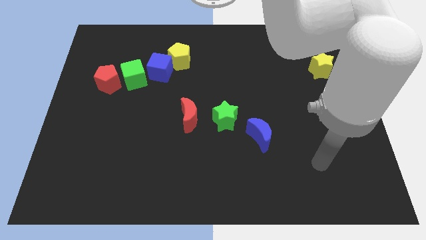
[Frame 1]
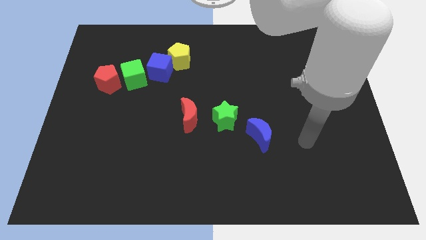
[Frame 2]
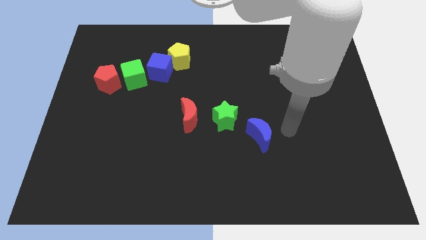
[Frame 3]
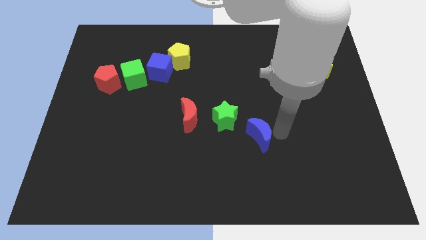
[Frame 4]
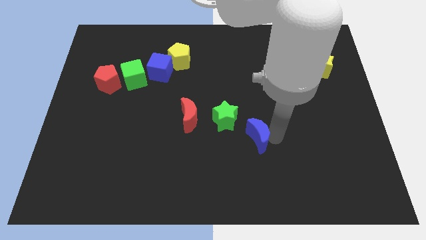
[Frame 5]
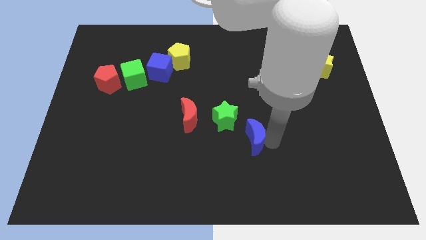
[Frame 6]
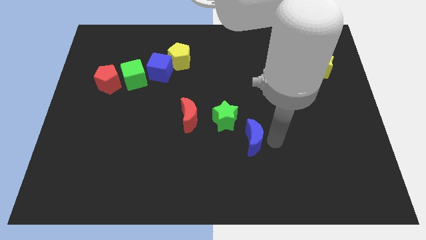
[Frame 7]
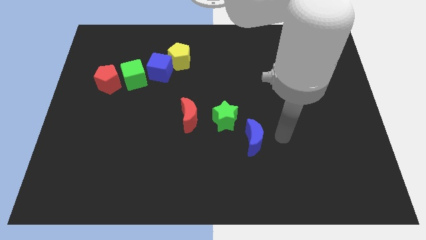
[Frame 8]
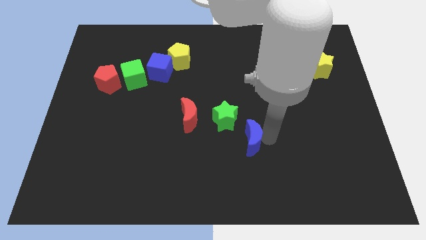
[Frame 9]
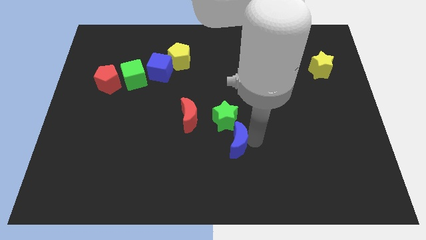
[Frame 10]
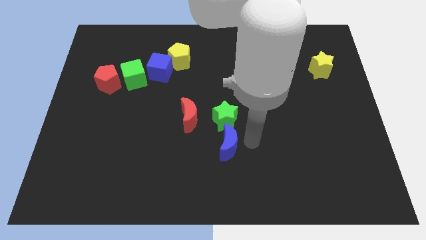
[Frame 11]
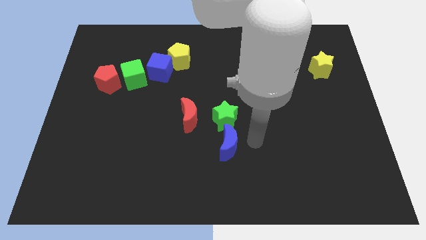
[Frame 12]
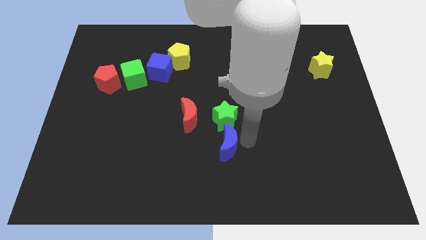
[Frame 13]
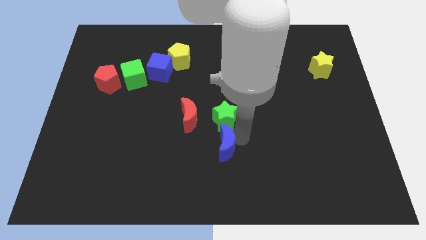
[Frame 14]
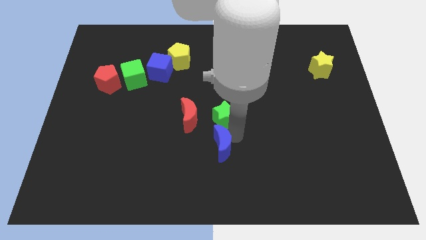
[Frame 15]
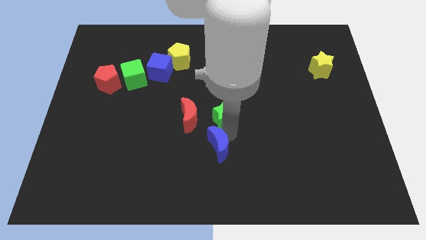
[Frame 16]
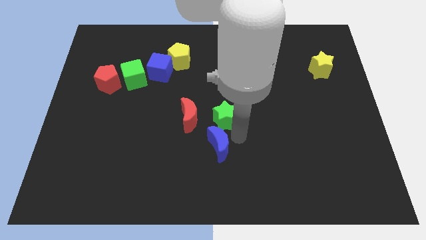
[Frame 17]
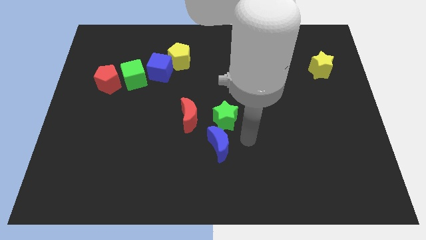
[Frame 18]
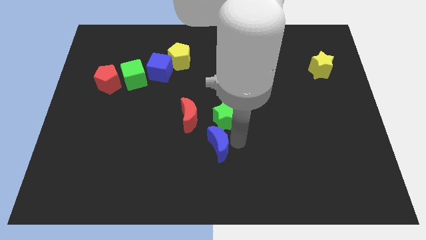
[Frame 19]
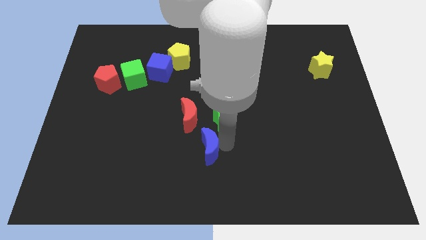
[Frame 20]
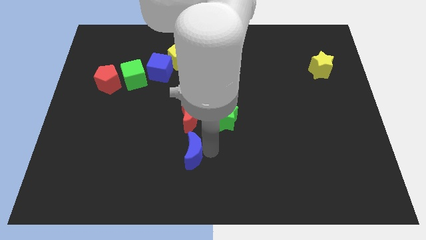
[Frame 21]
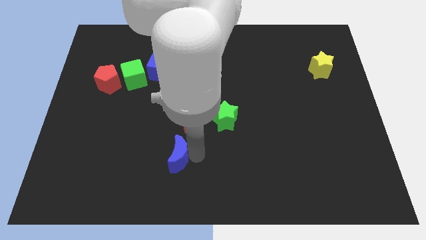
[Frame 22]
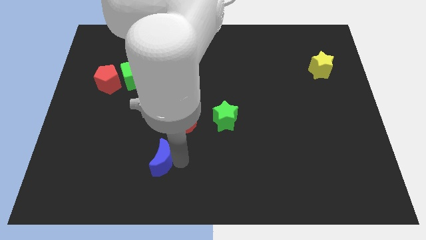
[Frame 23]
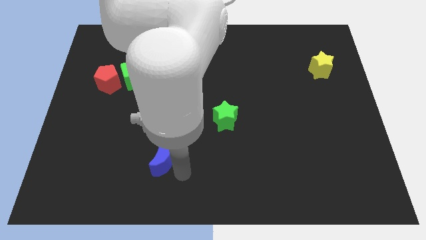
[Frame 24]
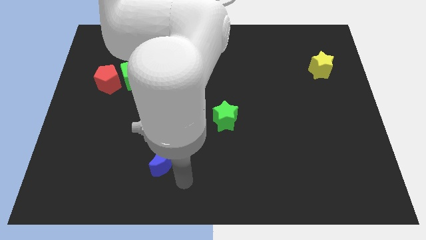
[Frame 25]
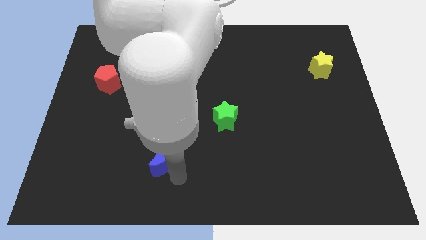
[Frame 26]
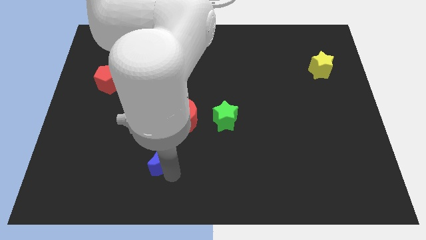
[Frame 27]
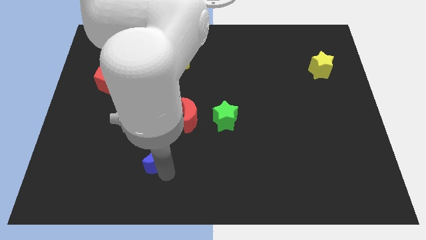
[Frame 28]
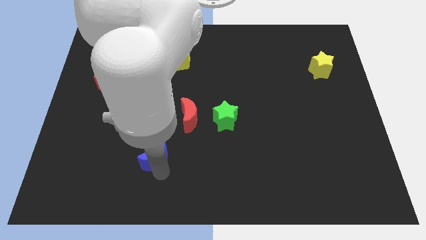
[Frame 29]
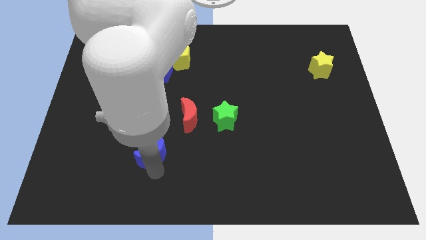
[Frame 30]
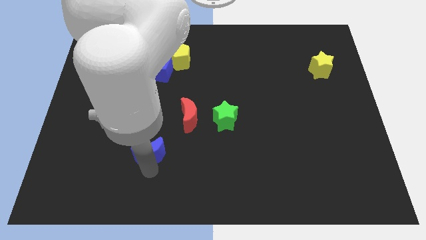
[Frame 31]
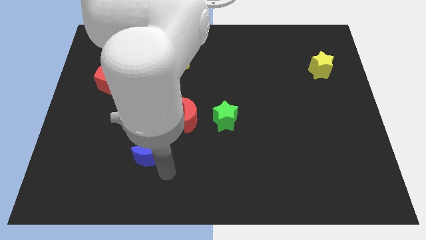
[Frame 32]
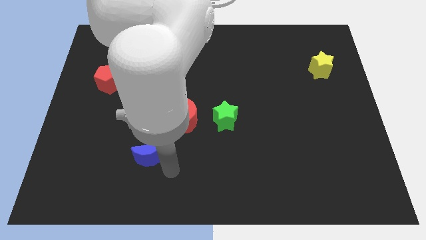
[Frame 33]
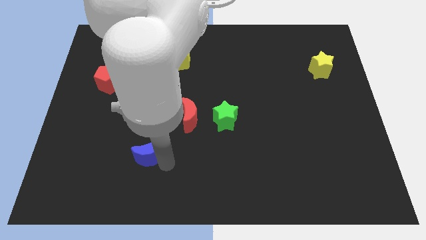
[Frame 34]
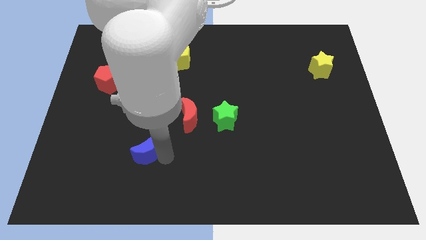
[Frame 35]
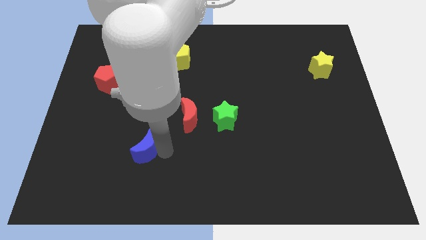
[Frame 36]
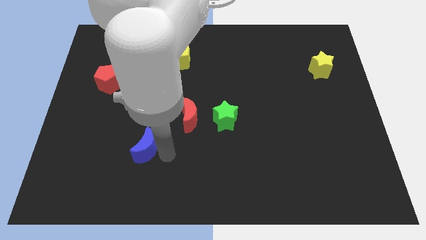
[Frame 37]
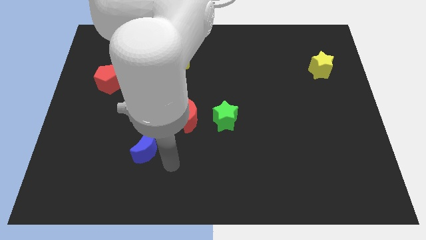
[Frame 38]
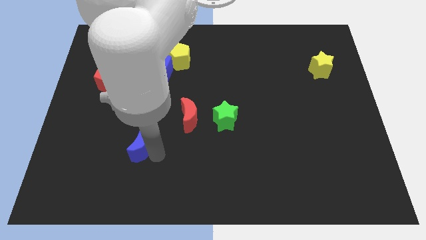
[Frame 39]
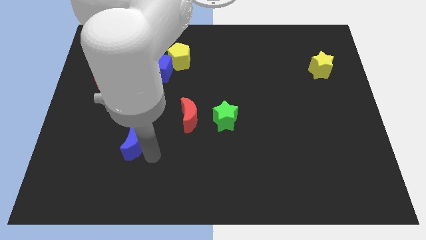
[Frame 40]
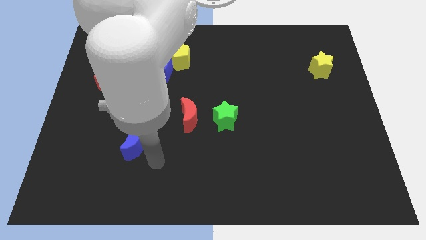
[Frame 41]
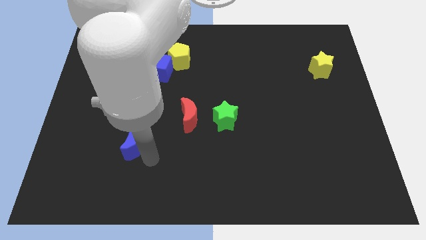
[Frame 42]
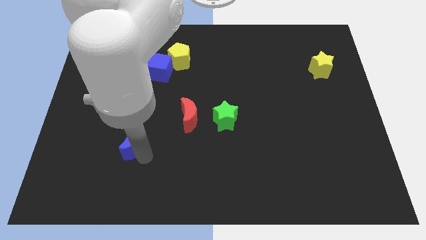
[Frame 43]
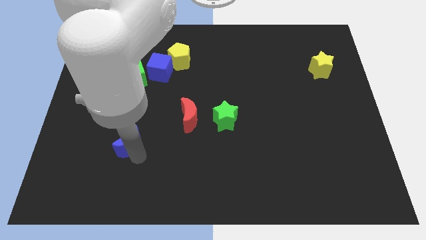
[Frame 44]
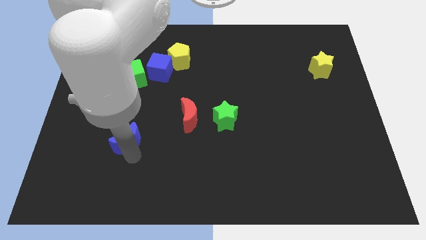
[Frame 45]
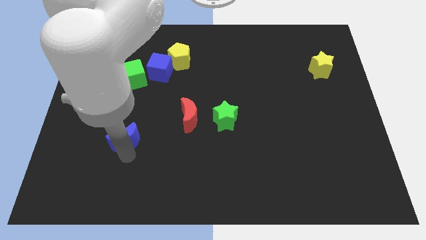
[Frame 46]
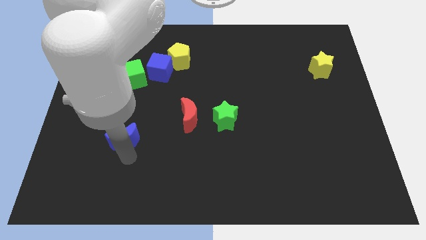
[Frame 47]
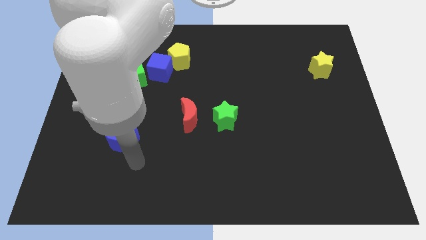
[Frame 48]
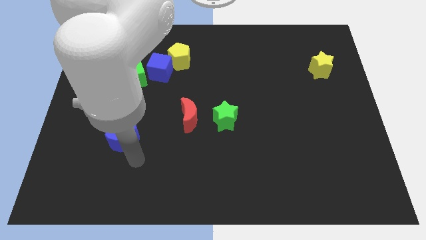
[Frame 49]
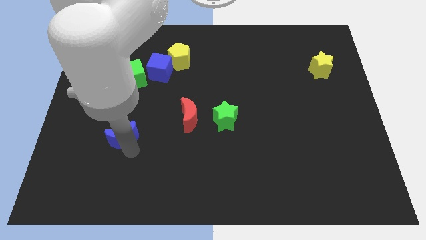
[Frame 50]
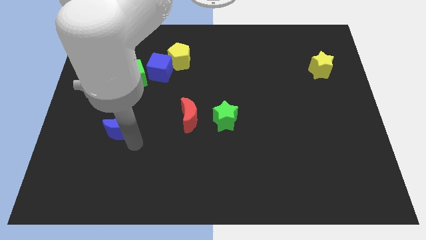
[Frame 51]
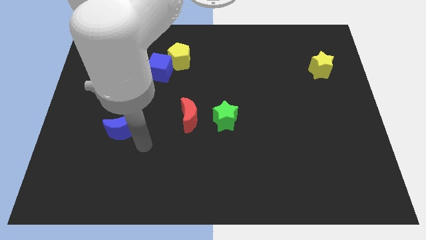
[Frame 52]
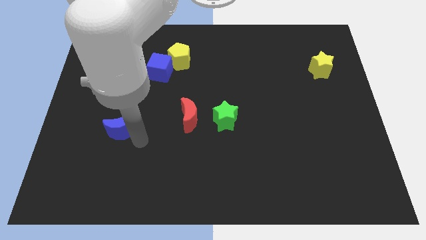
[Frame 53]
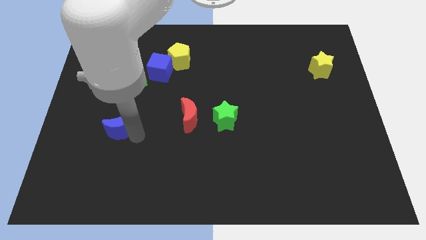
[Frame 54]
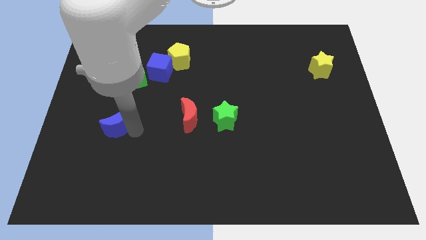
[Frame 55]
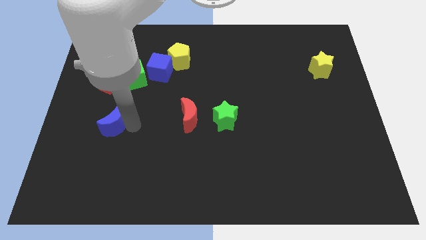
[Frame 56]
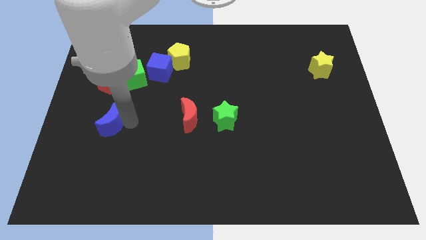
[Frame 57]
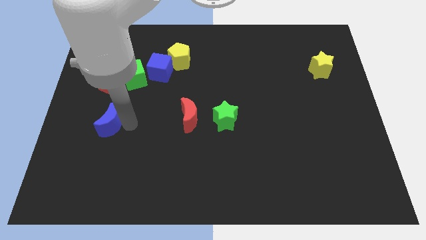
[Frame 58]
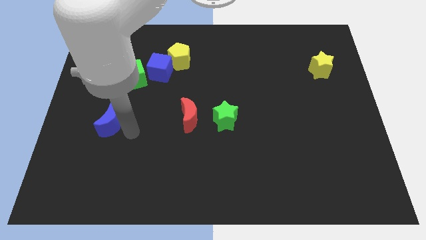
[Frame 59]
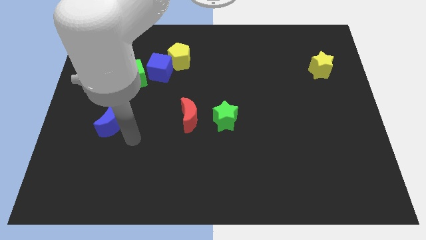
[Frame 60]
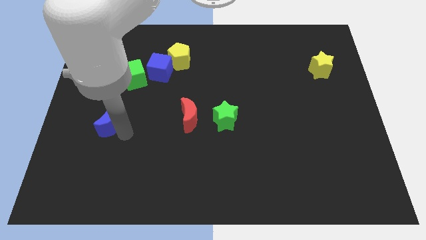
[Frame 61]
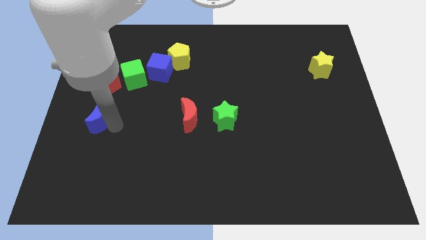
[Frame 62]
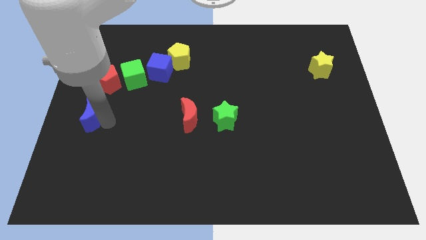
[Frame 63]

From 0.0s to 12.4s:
move the blue moon to the center left
